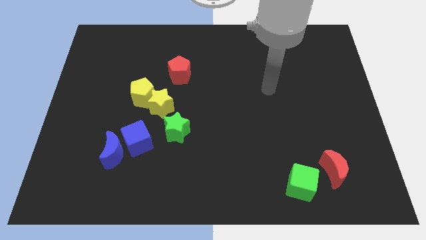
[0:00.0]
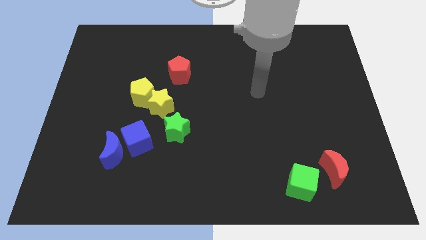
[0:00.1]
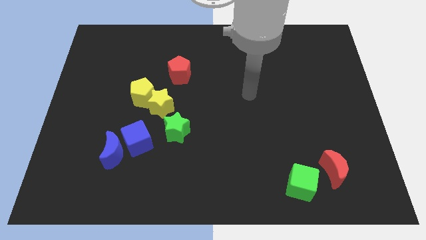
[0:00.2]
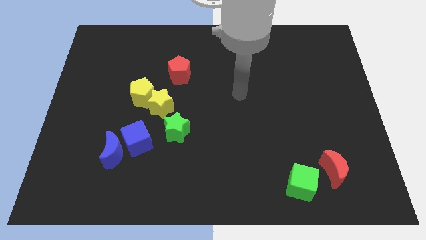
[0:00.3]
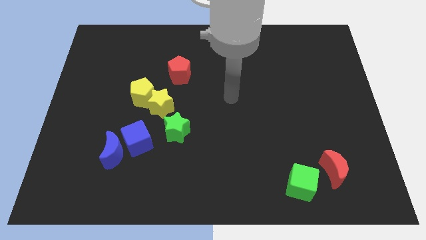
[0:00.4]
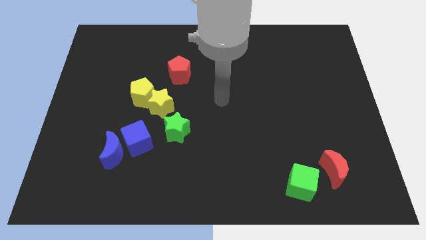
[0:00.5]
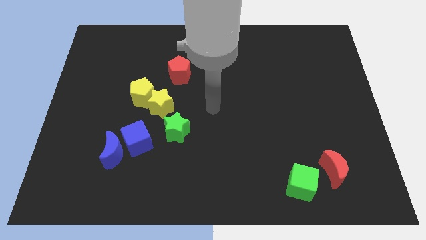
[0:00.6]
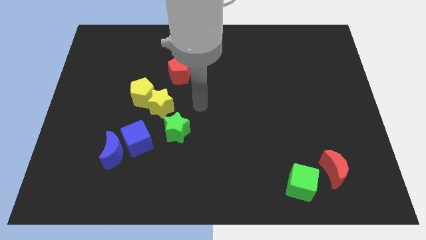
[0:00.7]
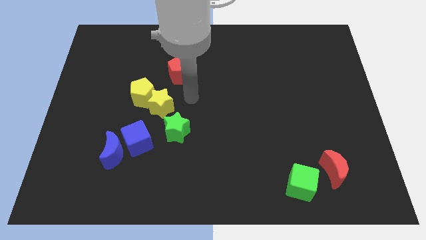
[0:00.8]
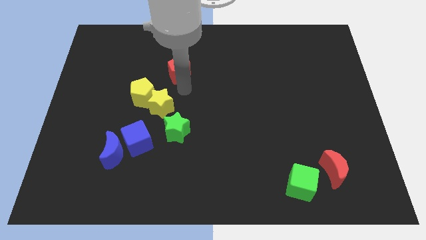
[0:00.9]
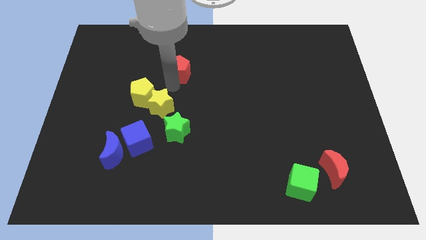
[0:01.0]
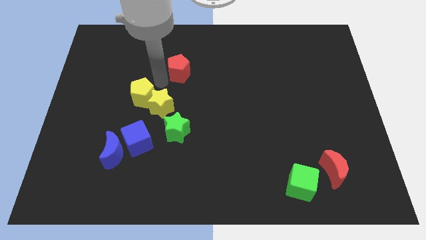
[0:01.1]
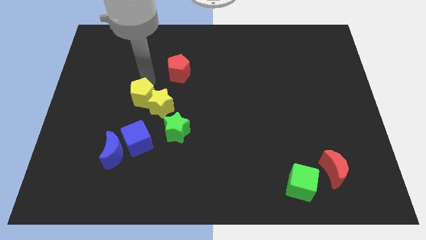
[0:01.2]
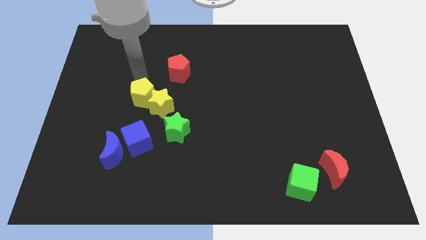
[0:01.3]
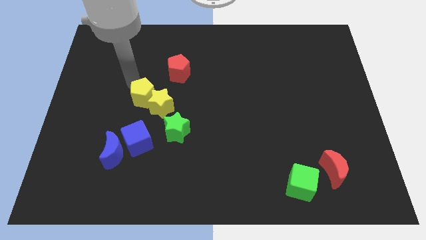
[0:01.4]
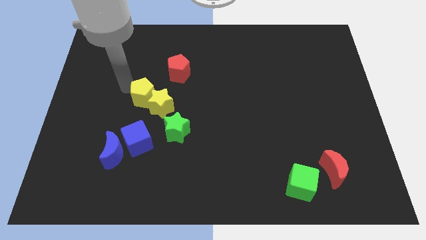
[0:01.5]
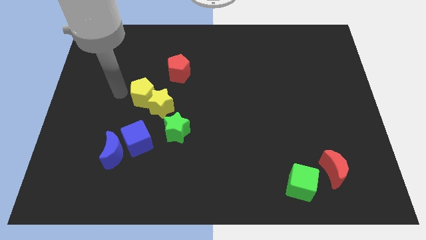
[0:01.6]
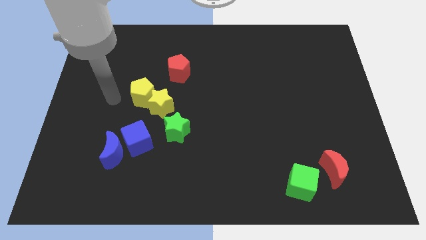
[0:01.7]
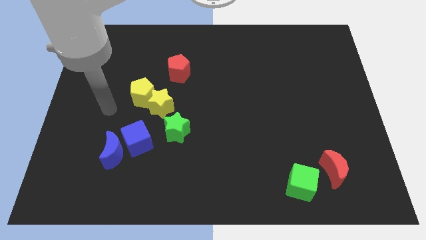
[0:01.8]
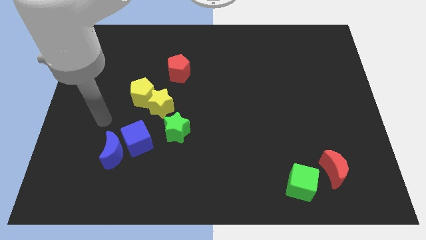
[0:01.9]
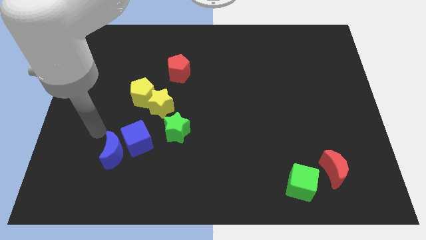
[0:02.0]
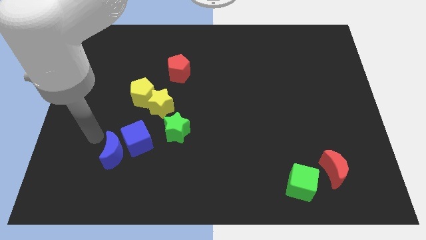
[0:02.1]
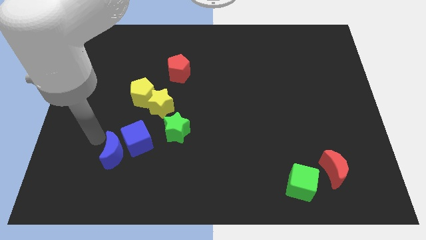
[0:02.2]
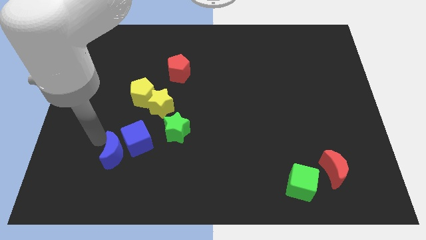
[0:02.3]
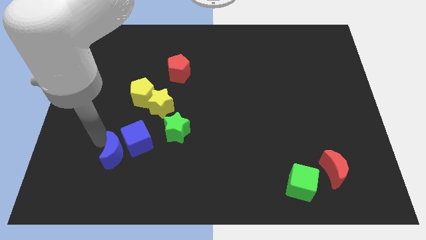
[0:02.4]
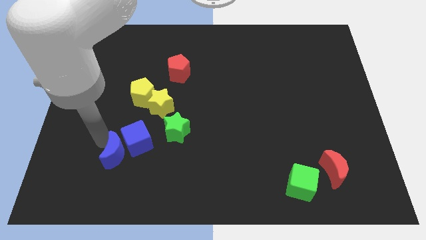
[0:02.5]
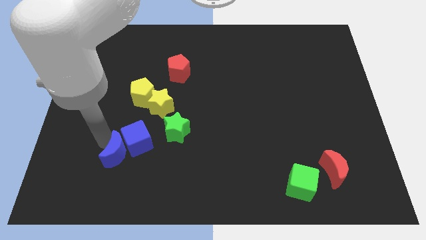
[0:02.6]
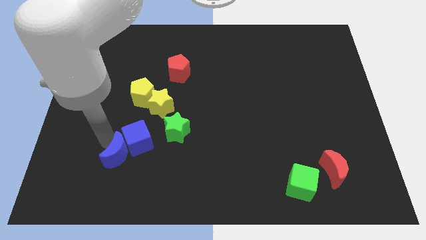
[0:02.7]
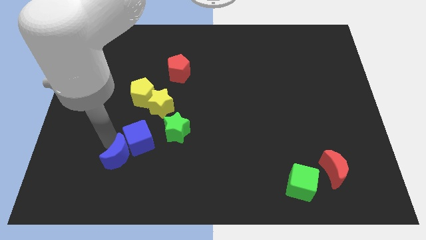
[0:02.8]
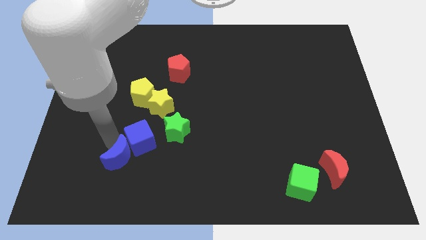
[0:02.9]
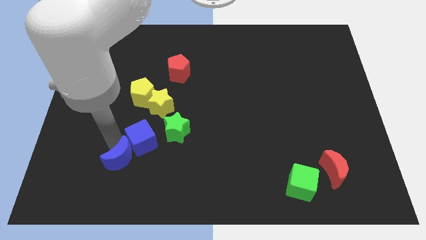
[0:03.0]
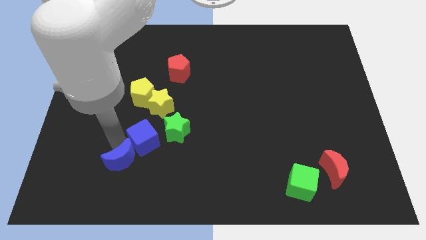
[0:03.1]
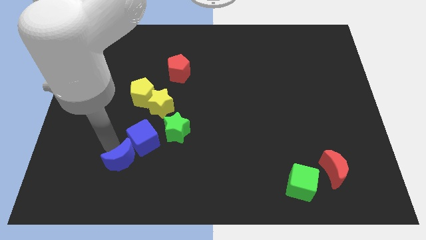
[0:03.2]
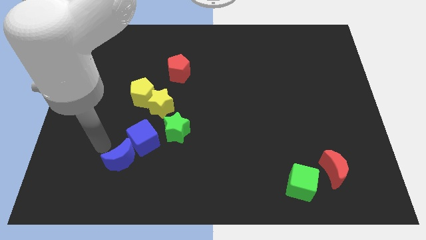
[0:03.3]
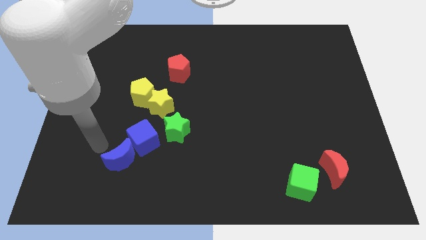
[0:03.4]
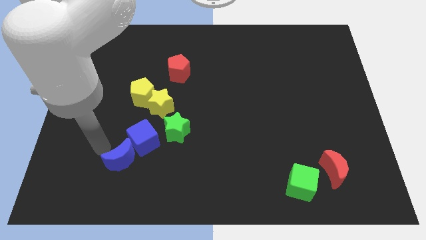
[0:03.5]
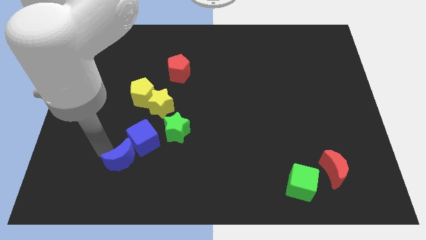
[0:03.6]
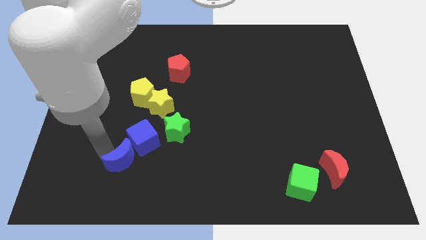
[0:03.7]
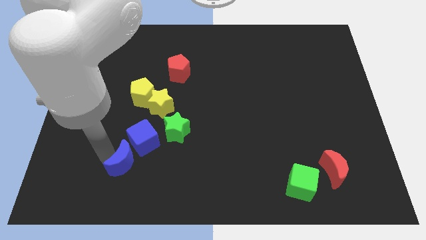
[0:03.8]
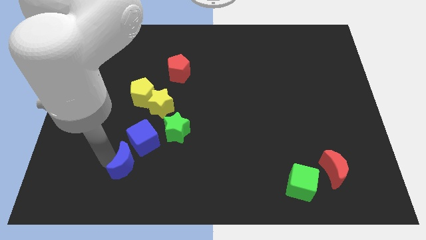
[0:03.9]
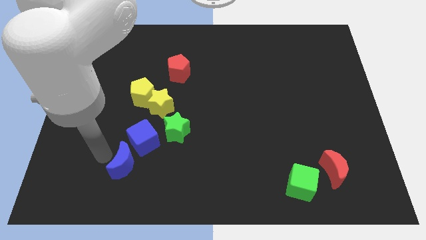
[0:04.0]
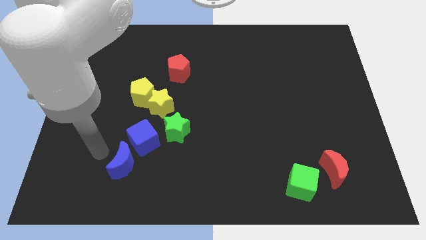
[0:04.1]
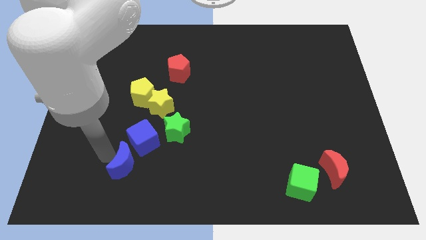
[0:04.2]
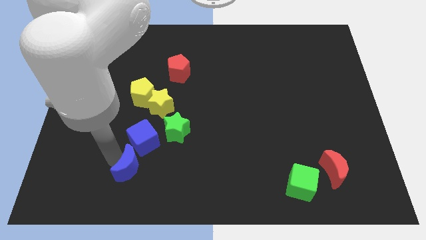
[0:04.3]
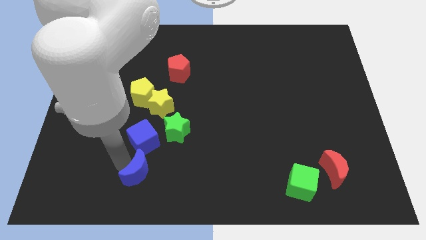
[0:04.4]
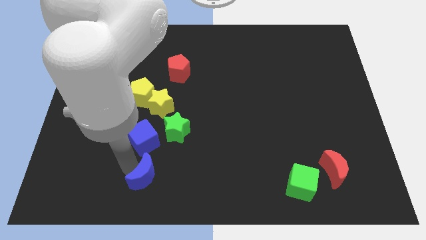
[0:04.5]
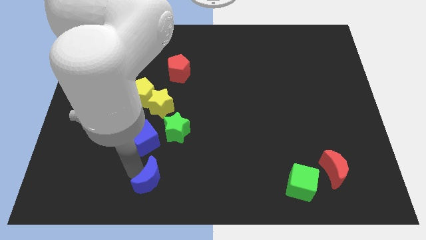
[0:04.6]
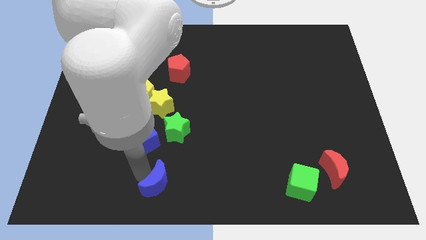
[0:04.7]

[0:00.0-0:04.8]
slide the blue moon to the bottom

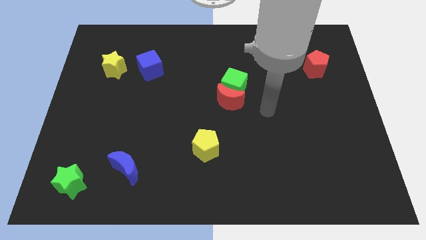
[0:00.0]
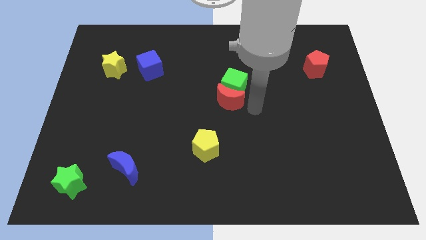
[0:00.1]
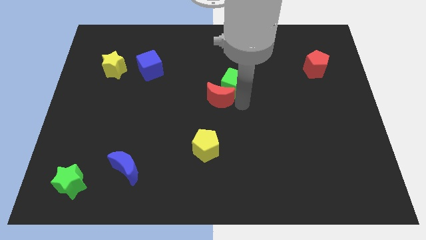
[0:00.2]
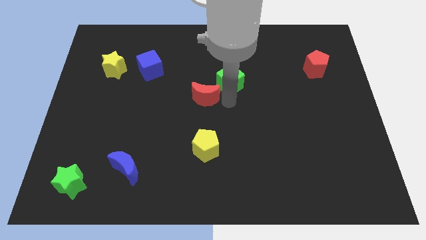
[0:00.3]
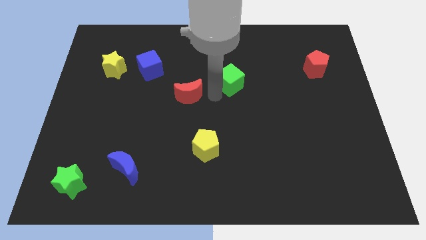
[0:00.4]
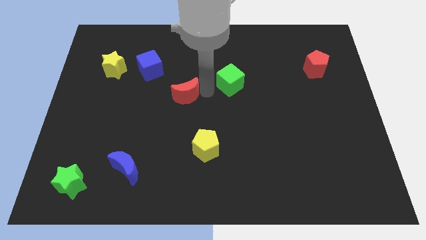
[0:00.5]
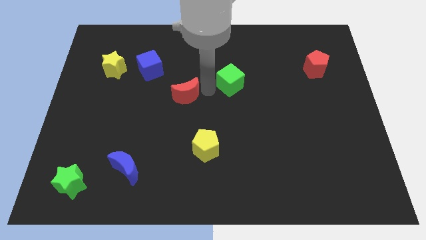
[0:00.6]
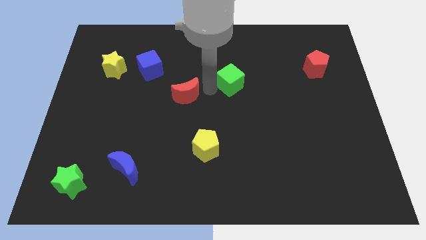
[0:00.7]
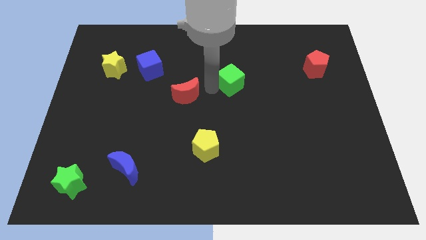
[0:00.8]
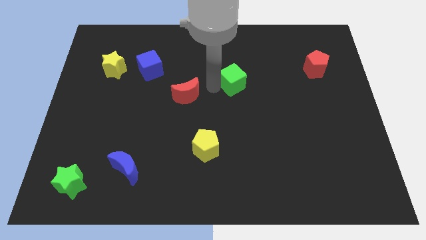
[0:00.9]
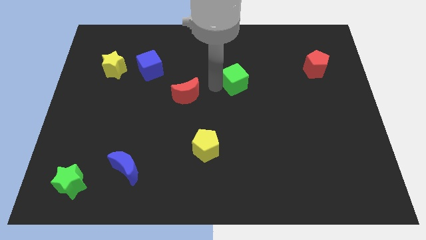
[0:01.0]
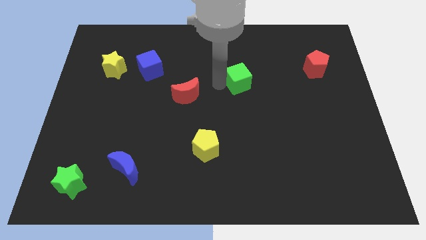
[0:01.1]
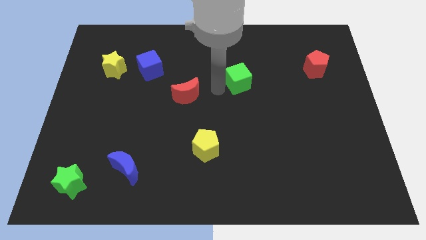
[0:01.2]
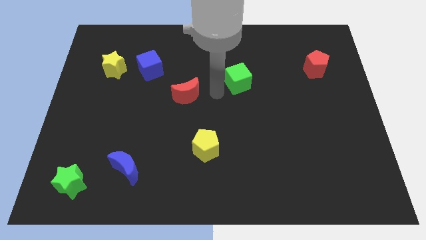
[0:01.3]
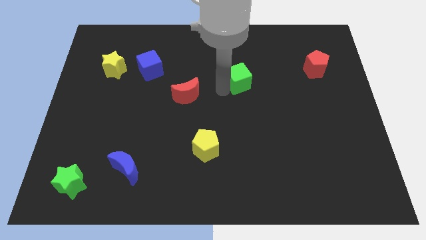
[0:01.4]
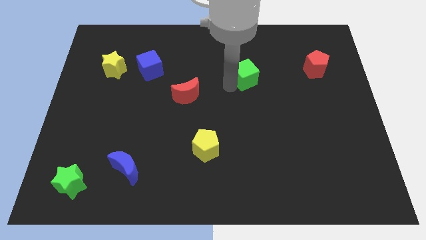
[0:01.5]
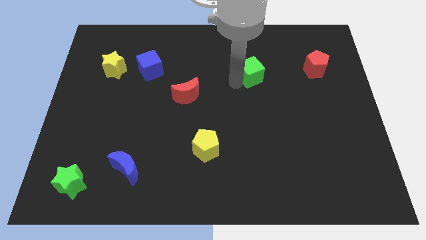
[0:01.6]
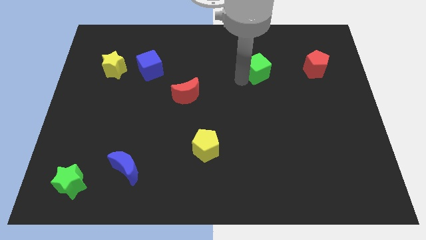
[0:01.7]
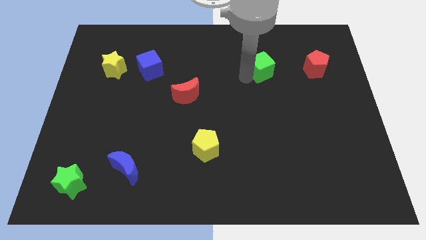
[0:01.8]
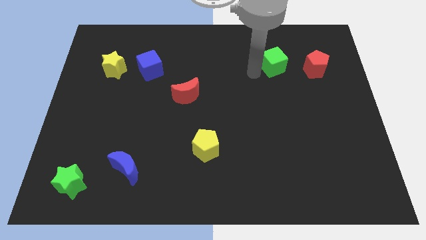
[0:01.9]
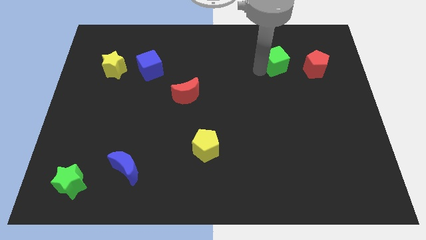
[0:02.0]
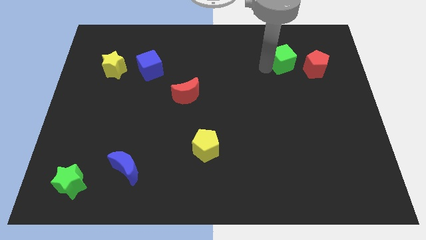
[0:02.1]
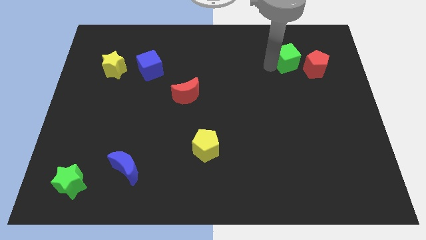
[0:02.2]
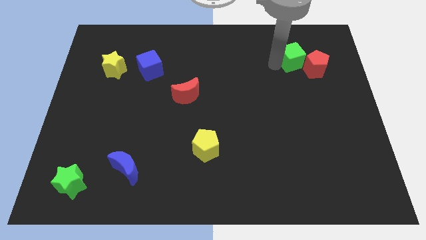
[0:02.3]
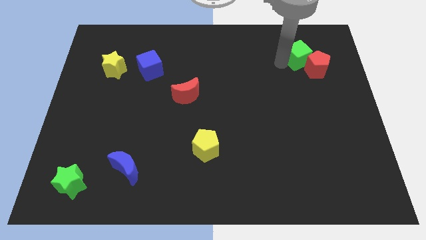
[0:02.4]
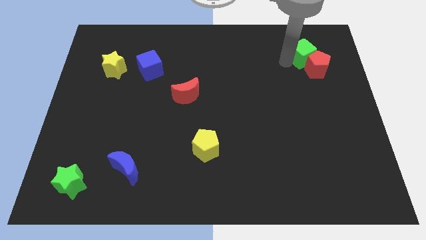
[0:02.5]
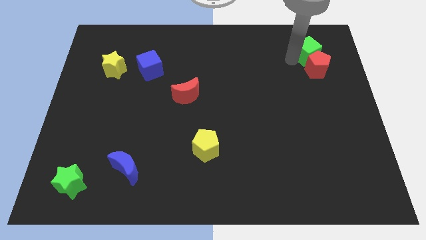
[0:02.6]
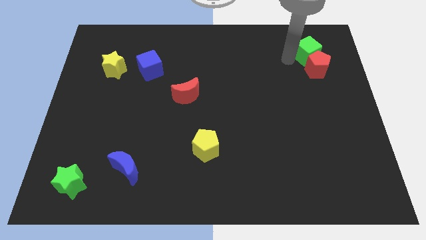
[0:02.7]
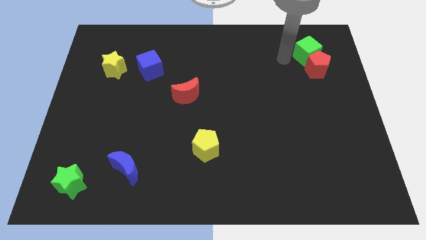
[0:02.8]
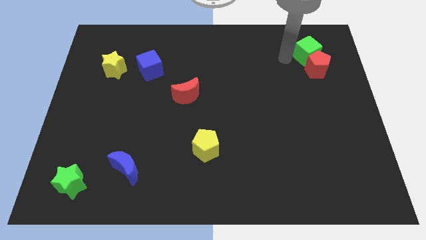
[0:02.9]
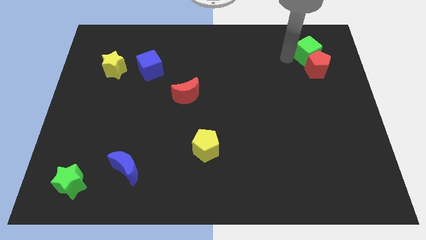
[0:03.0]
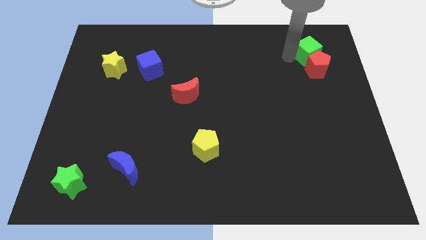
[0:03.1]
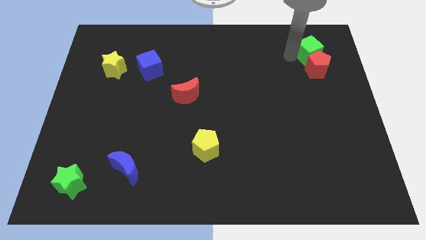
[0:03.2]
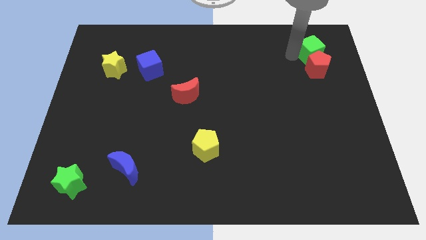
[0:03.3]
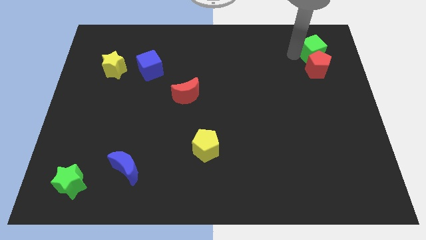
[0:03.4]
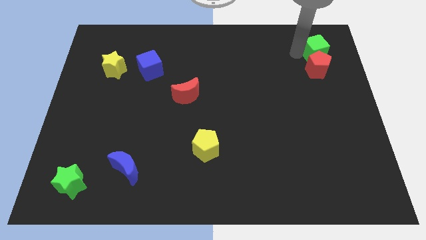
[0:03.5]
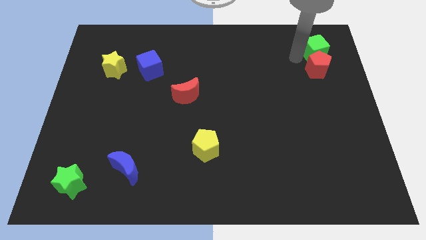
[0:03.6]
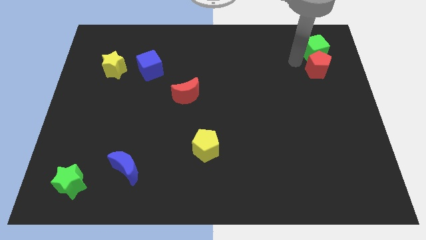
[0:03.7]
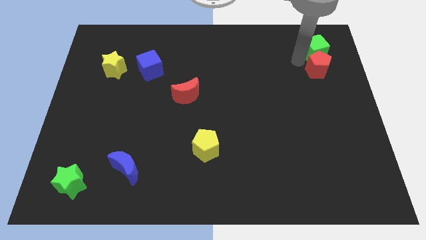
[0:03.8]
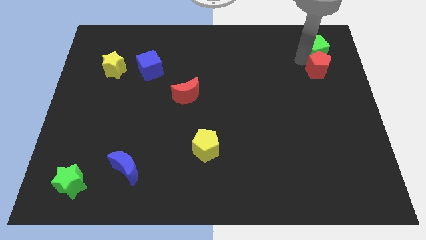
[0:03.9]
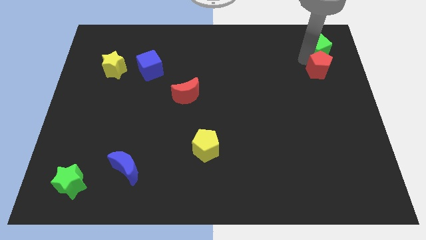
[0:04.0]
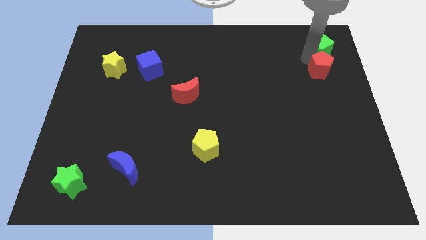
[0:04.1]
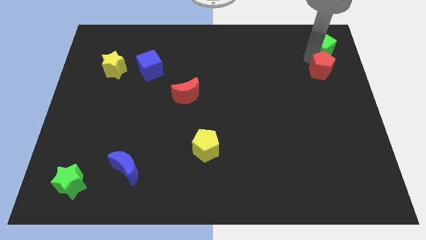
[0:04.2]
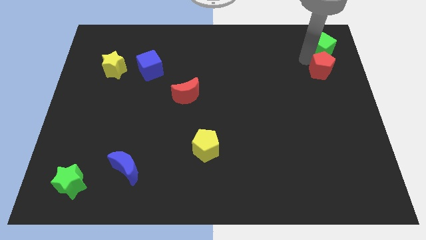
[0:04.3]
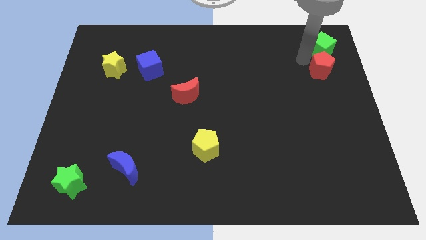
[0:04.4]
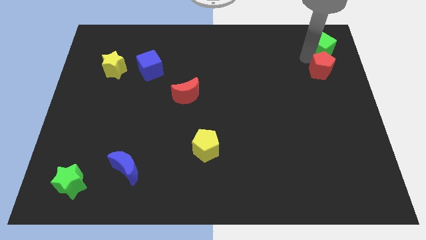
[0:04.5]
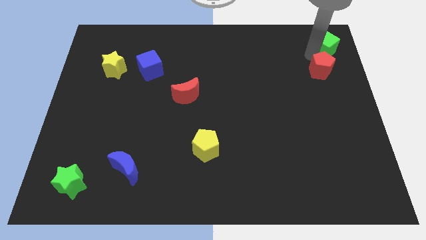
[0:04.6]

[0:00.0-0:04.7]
push the green cube to the top right corner
